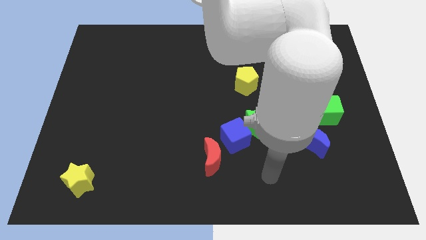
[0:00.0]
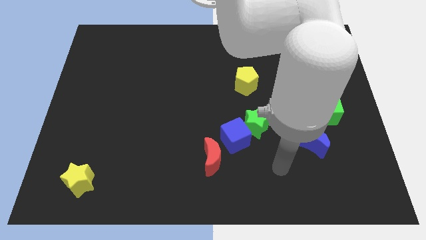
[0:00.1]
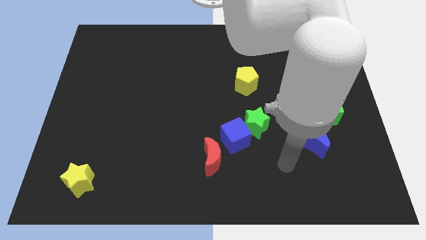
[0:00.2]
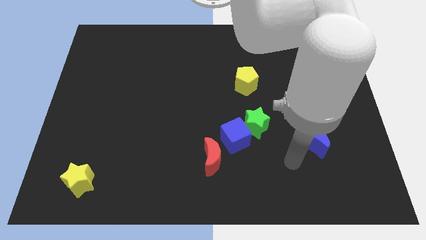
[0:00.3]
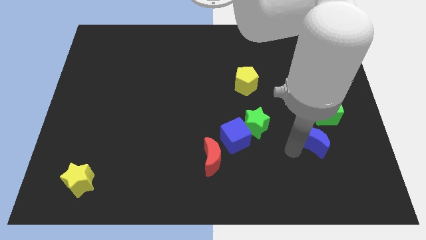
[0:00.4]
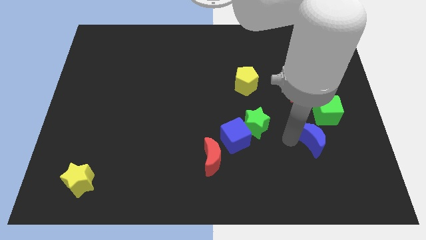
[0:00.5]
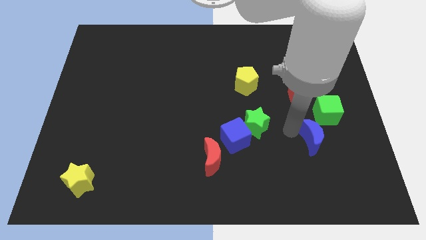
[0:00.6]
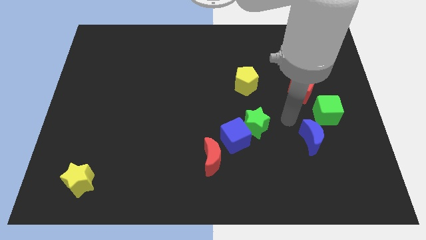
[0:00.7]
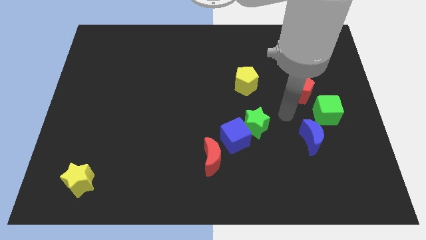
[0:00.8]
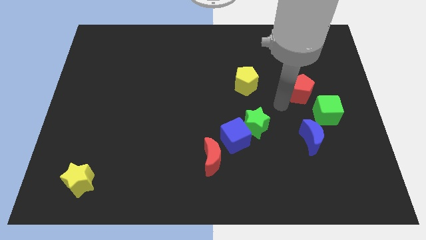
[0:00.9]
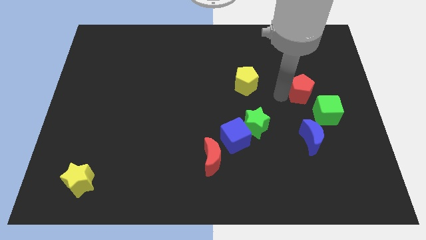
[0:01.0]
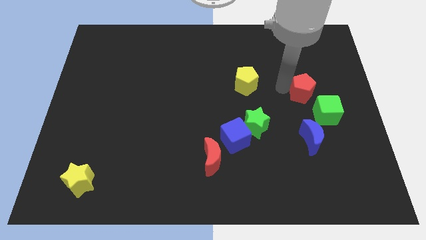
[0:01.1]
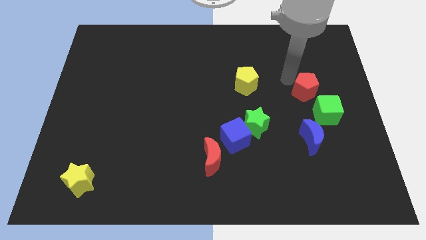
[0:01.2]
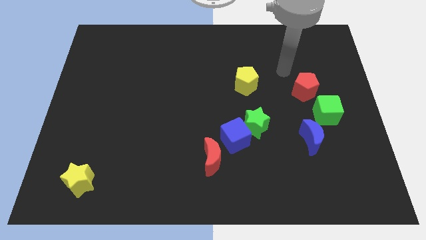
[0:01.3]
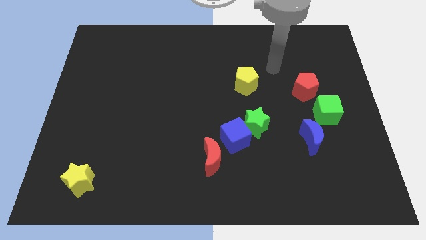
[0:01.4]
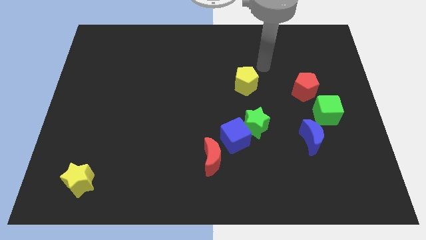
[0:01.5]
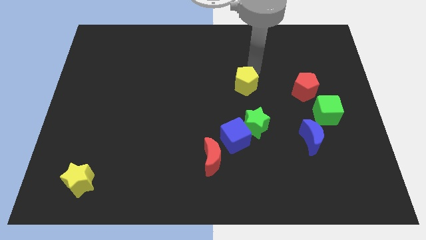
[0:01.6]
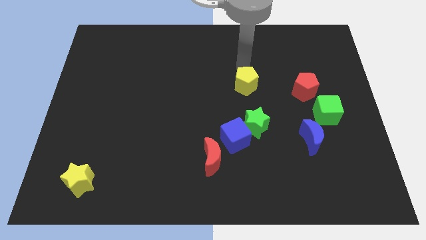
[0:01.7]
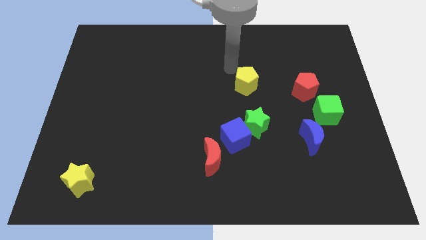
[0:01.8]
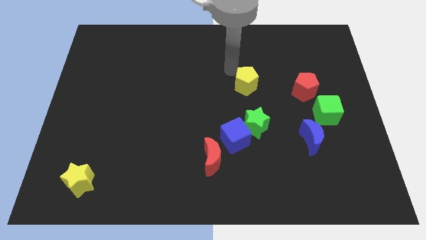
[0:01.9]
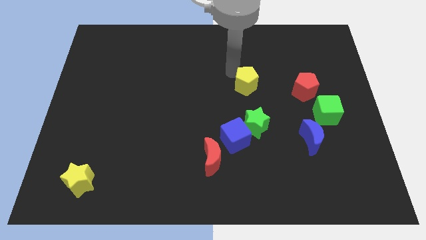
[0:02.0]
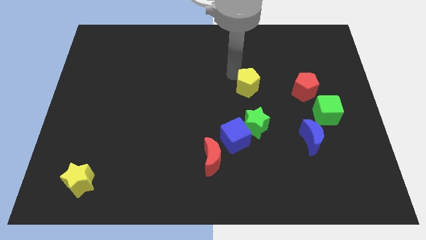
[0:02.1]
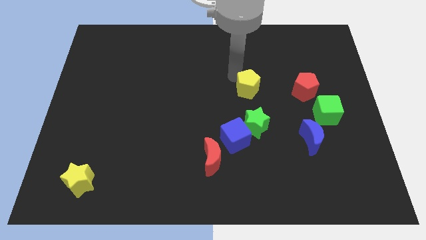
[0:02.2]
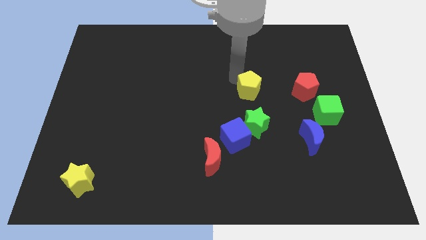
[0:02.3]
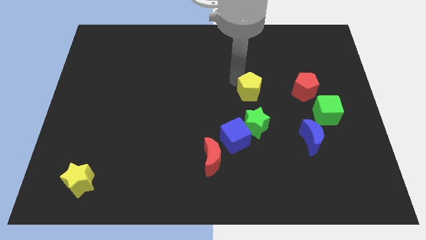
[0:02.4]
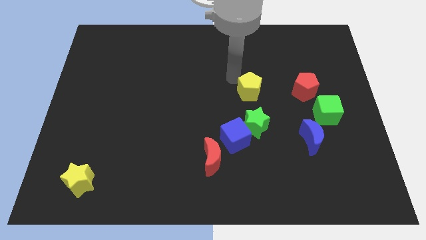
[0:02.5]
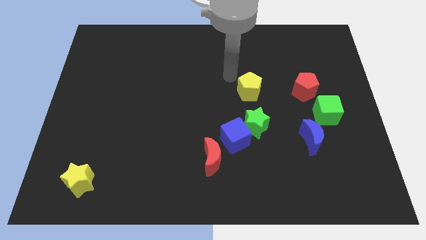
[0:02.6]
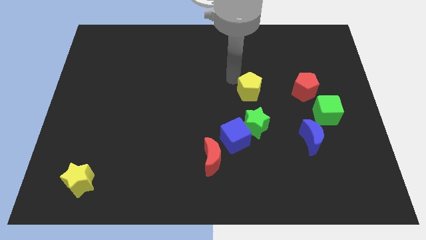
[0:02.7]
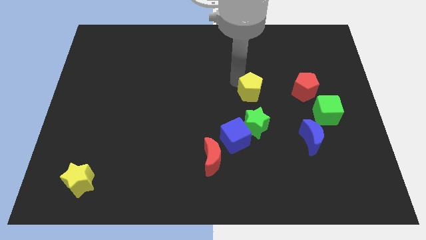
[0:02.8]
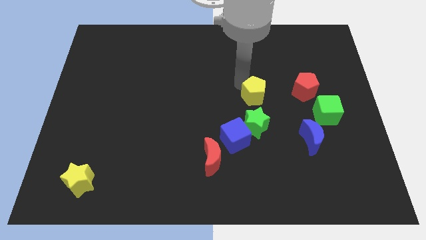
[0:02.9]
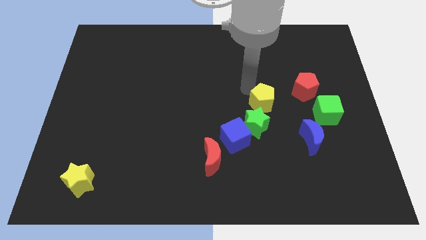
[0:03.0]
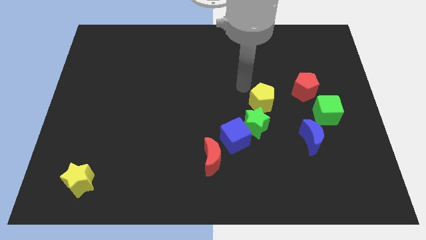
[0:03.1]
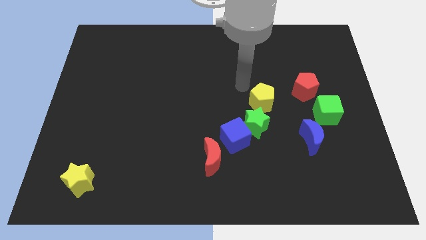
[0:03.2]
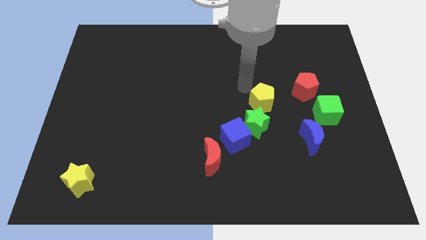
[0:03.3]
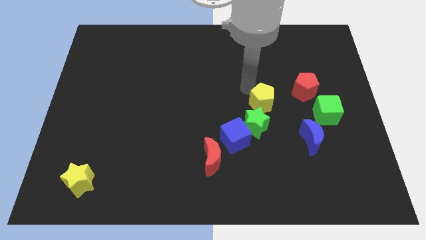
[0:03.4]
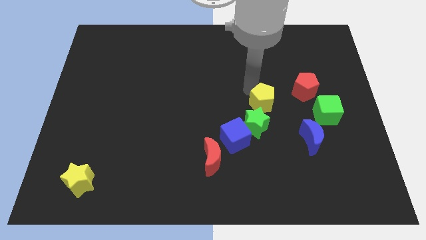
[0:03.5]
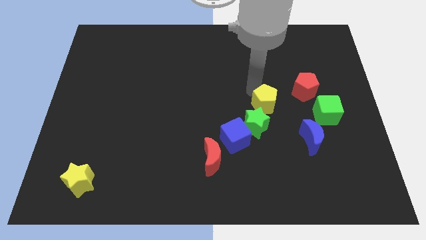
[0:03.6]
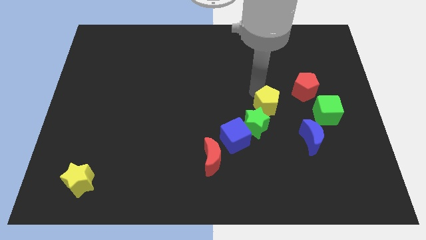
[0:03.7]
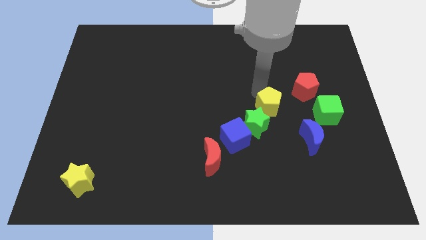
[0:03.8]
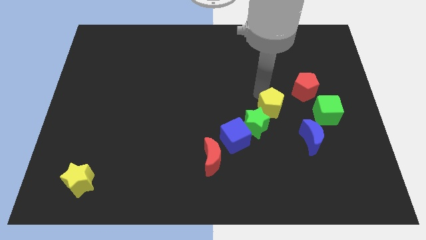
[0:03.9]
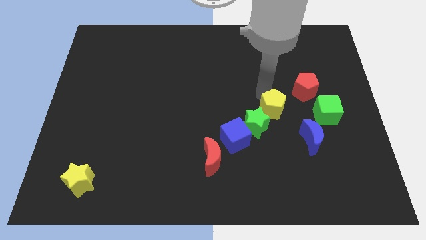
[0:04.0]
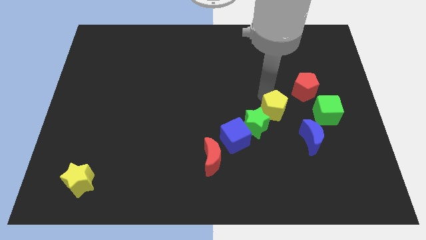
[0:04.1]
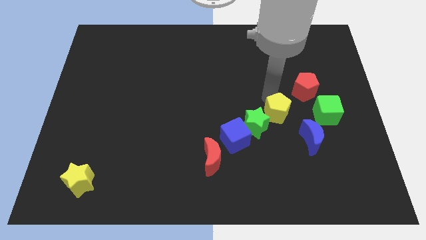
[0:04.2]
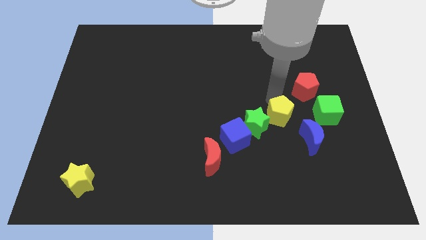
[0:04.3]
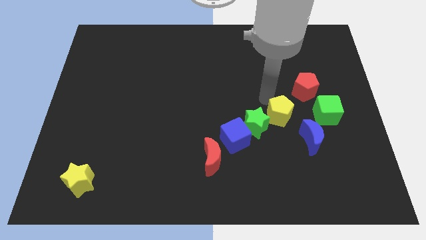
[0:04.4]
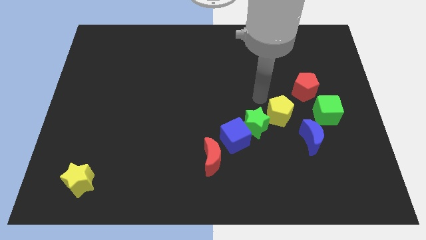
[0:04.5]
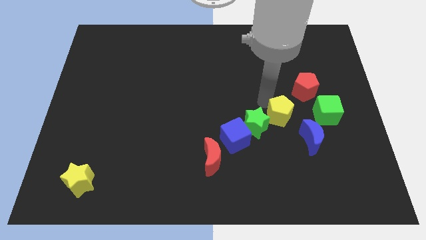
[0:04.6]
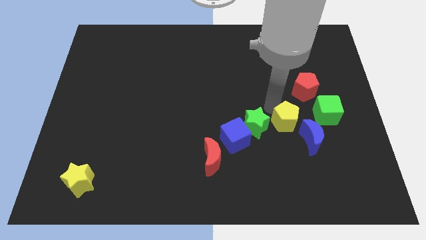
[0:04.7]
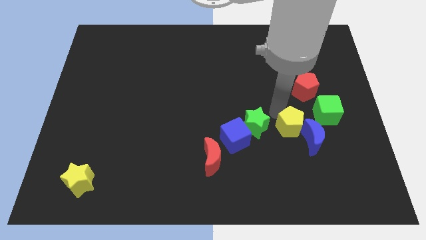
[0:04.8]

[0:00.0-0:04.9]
put the yellow pentagon close to the blue moon

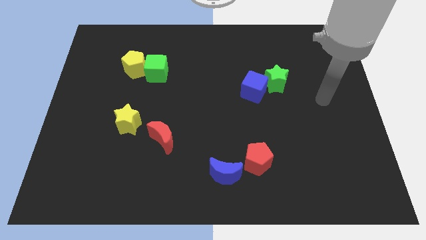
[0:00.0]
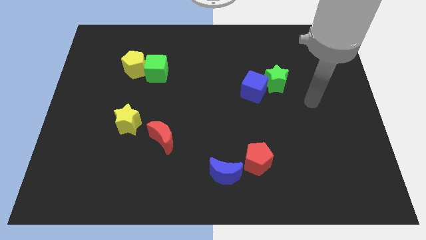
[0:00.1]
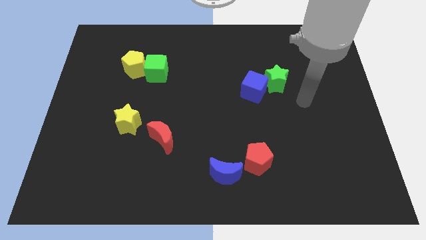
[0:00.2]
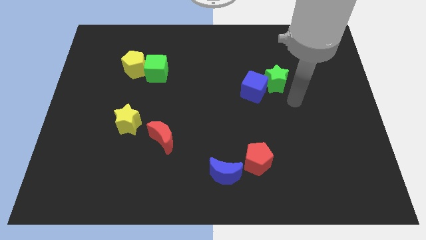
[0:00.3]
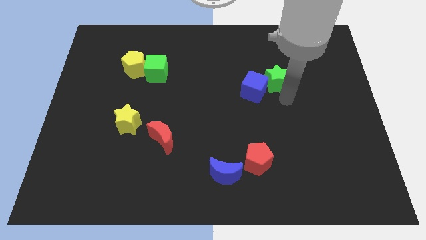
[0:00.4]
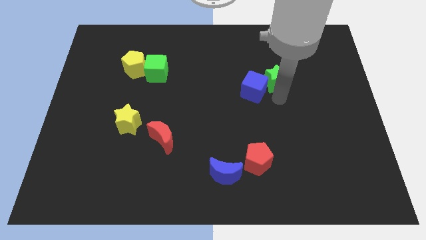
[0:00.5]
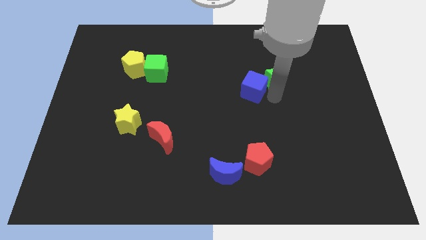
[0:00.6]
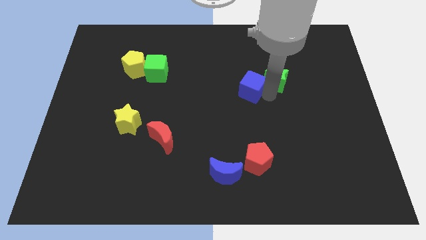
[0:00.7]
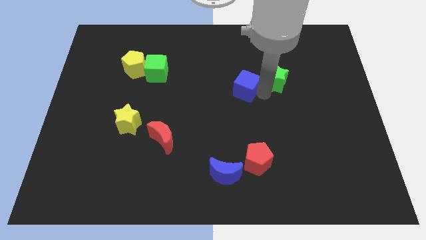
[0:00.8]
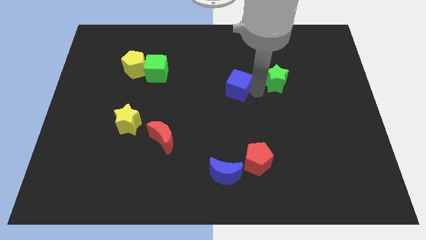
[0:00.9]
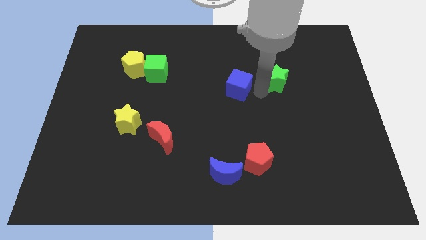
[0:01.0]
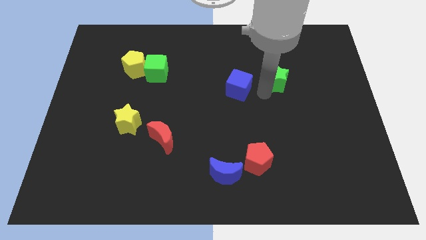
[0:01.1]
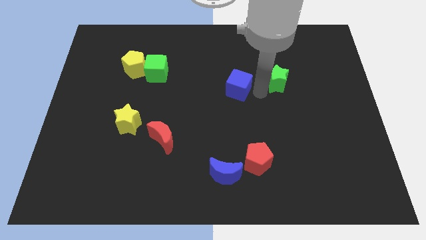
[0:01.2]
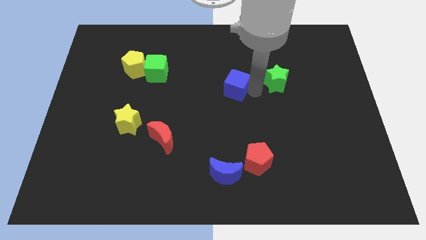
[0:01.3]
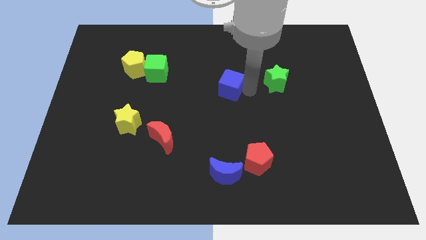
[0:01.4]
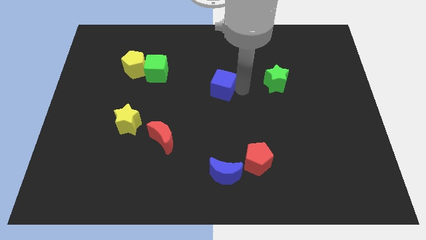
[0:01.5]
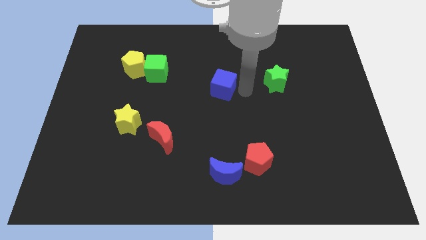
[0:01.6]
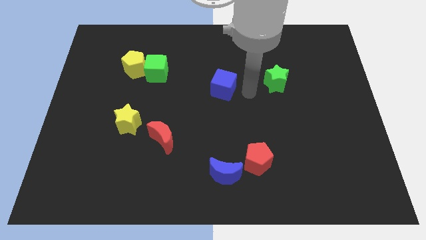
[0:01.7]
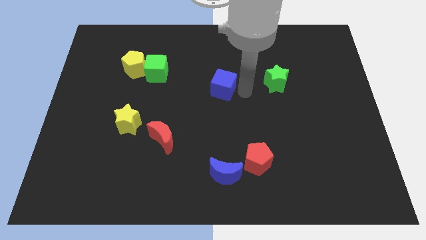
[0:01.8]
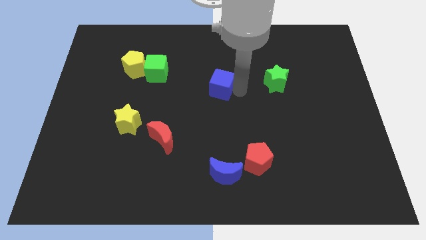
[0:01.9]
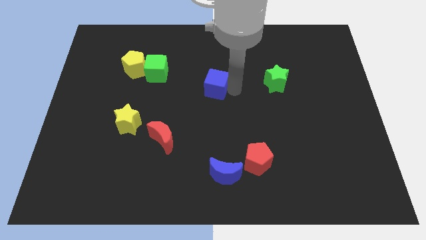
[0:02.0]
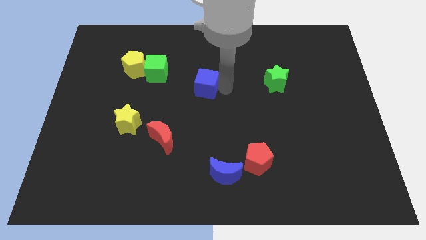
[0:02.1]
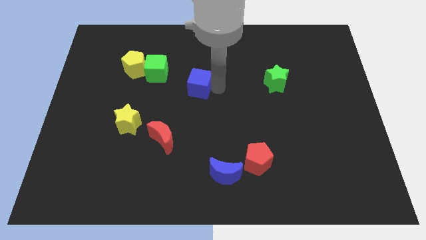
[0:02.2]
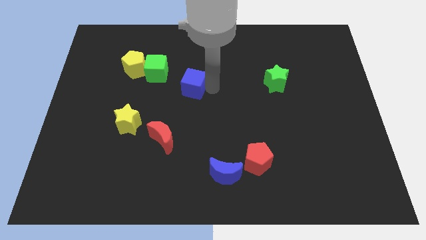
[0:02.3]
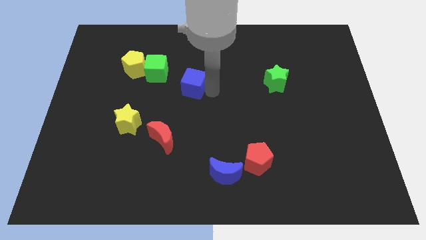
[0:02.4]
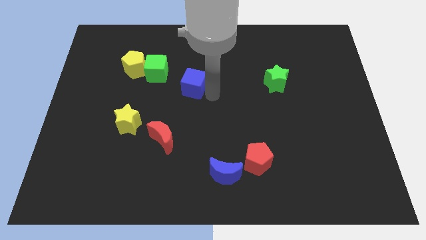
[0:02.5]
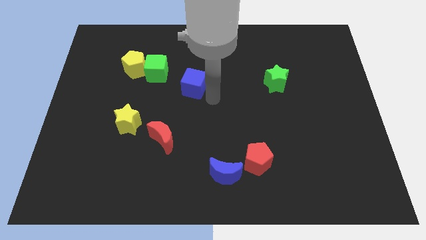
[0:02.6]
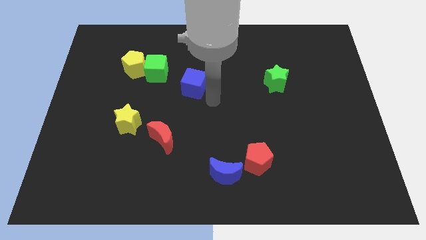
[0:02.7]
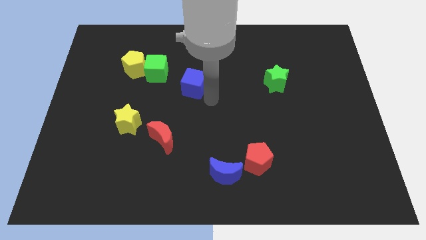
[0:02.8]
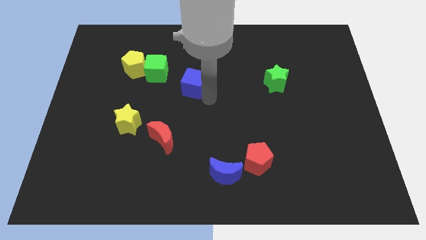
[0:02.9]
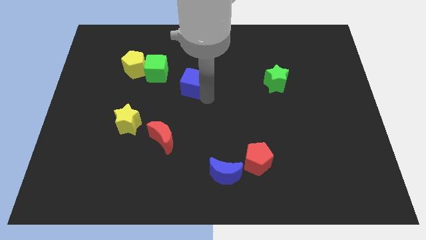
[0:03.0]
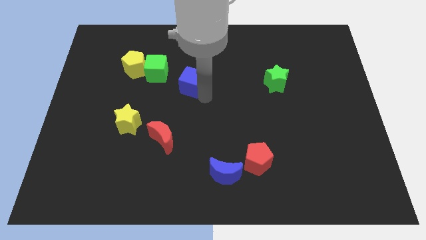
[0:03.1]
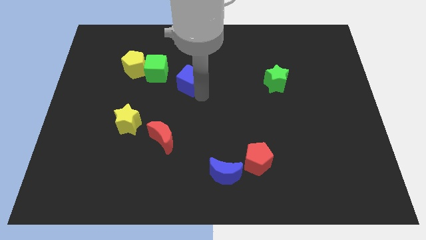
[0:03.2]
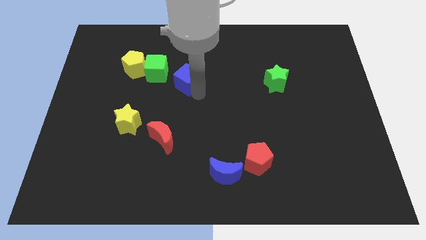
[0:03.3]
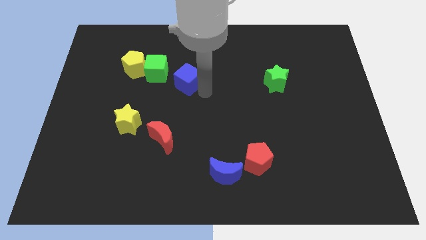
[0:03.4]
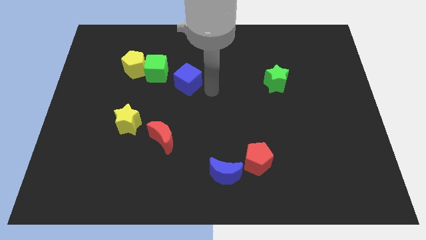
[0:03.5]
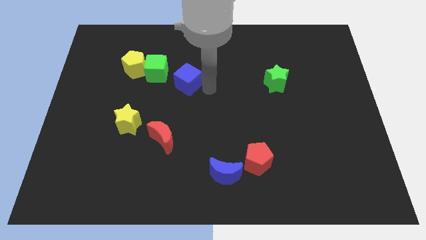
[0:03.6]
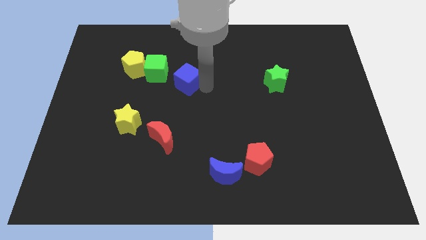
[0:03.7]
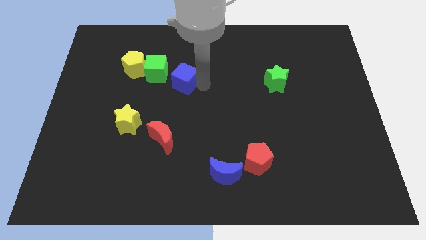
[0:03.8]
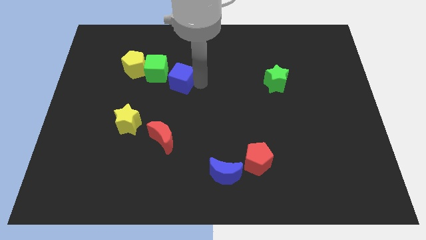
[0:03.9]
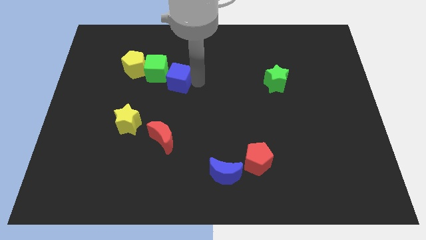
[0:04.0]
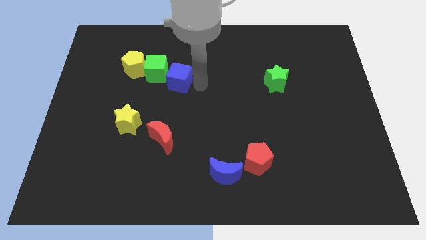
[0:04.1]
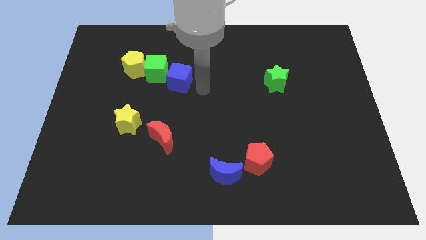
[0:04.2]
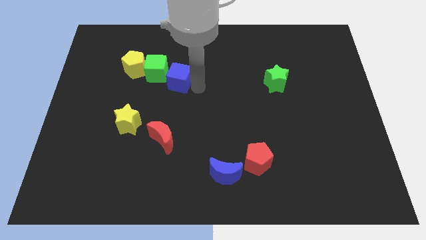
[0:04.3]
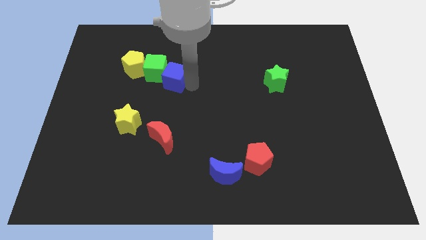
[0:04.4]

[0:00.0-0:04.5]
move the blue cube towards the green cube
